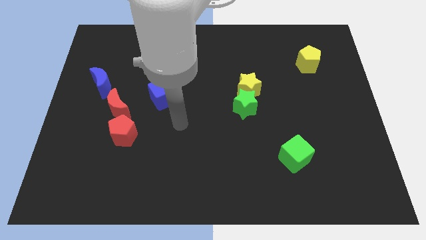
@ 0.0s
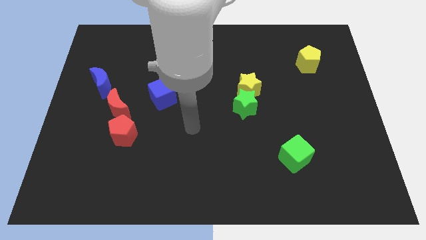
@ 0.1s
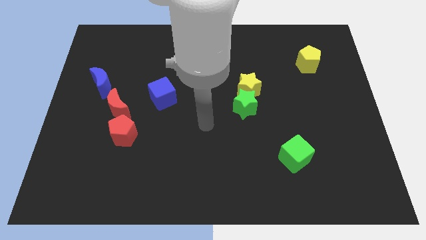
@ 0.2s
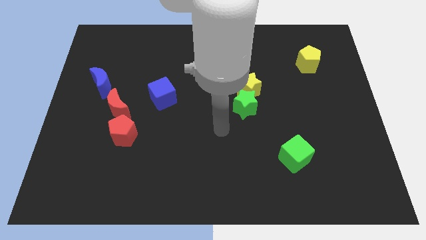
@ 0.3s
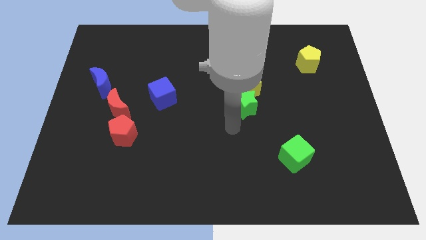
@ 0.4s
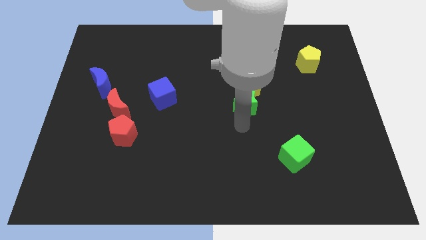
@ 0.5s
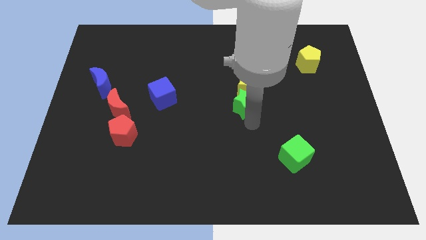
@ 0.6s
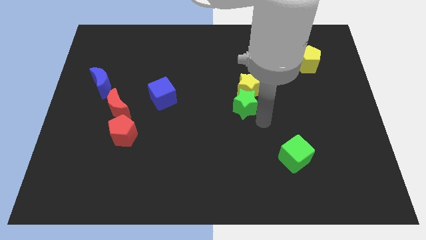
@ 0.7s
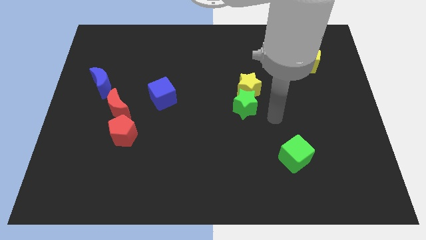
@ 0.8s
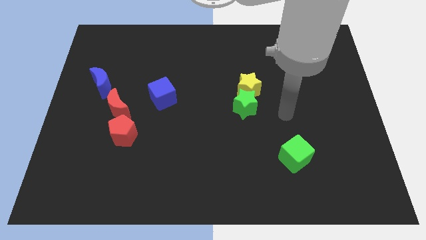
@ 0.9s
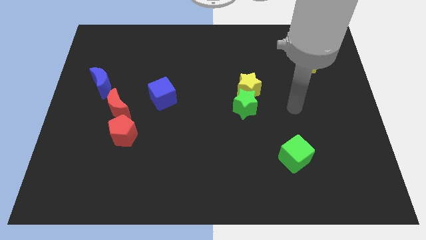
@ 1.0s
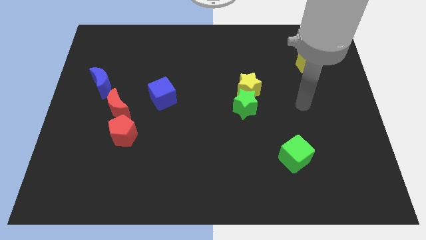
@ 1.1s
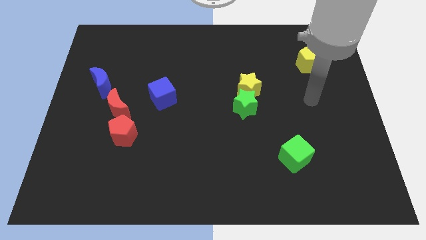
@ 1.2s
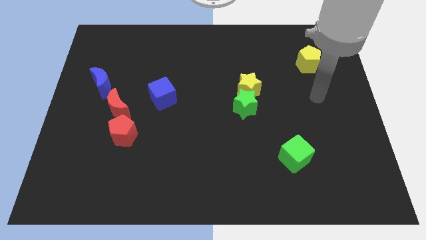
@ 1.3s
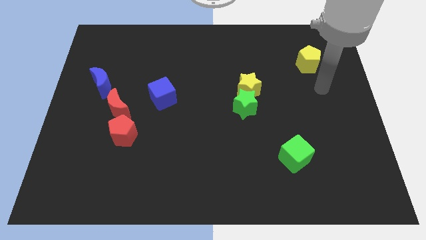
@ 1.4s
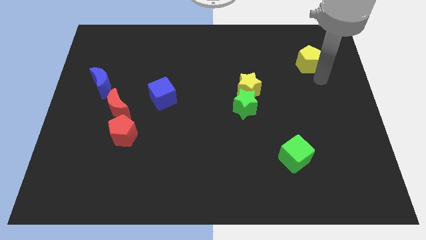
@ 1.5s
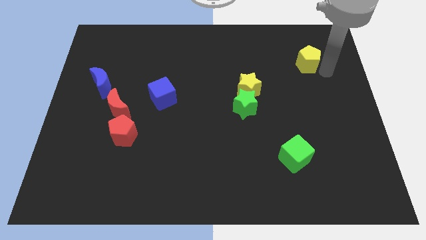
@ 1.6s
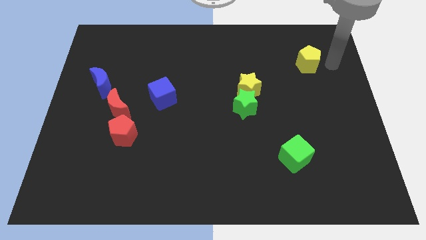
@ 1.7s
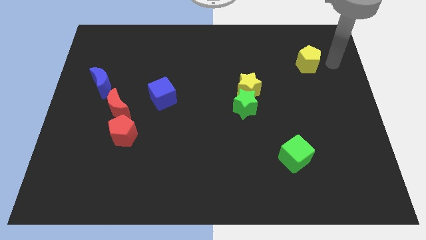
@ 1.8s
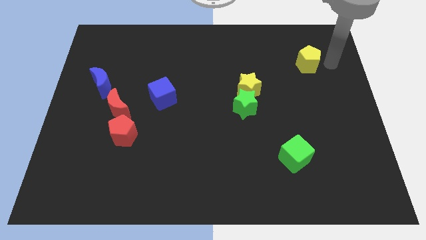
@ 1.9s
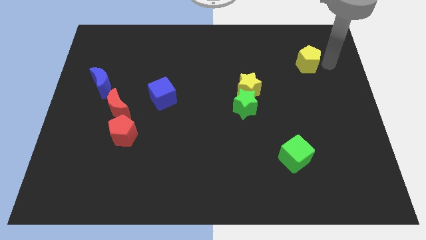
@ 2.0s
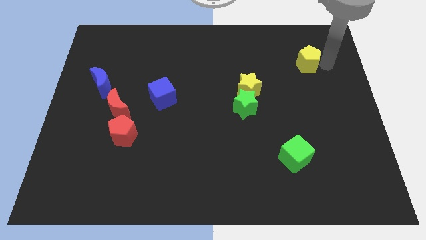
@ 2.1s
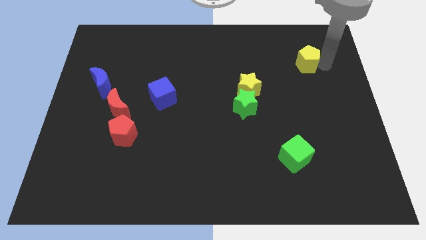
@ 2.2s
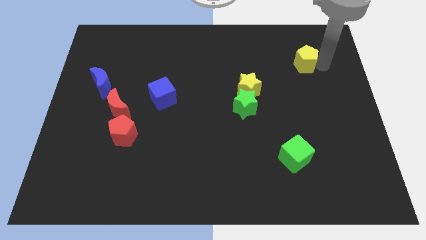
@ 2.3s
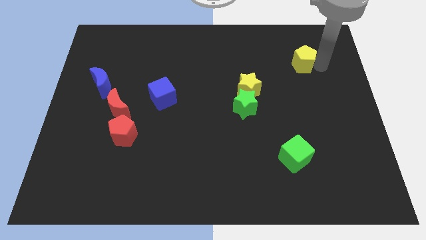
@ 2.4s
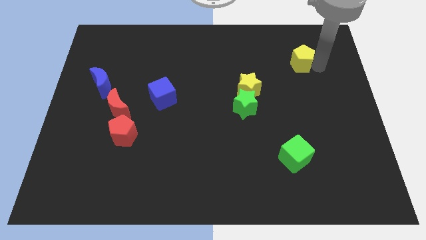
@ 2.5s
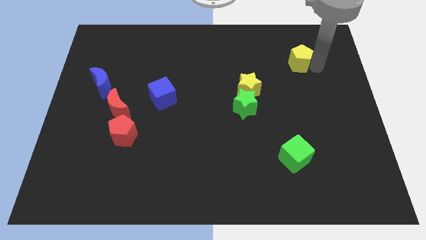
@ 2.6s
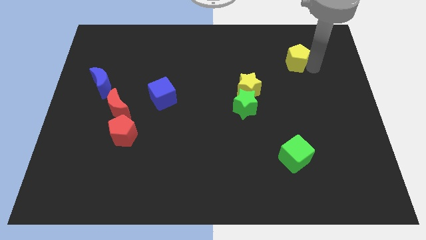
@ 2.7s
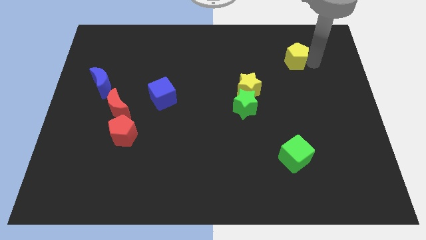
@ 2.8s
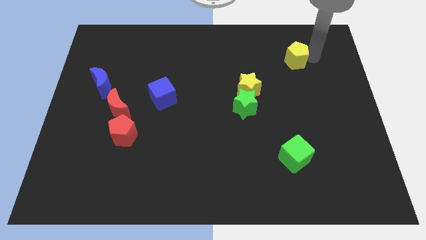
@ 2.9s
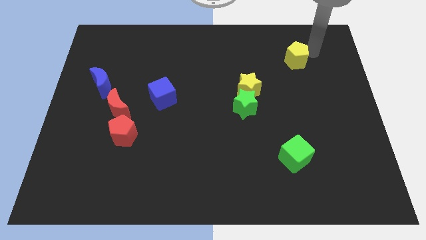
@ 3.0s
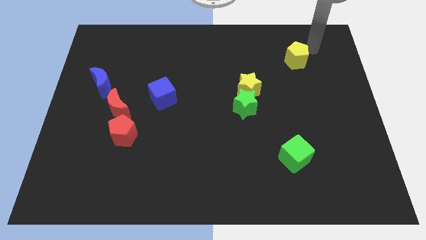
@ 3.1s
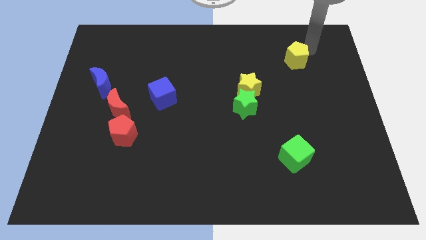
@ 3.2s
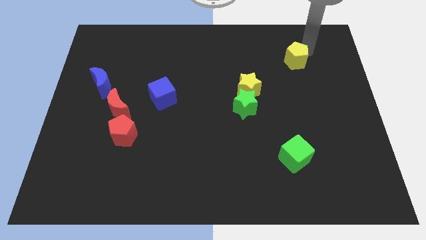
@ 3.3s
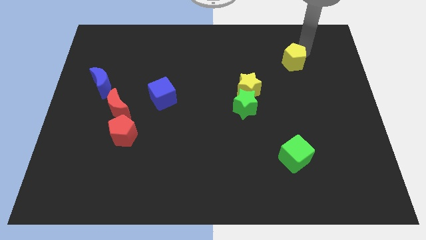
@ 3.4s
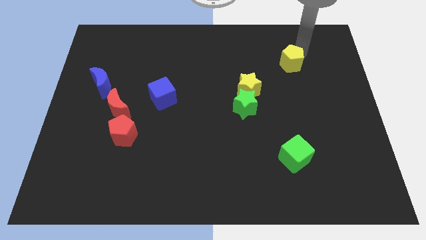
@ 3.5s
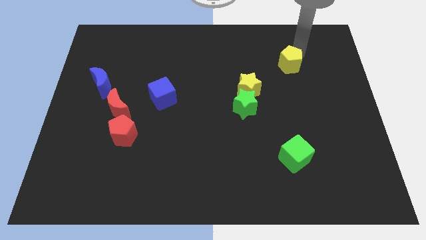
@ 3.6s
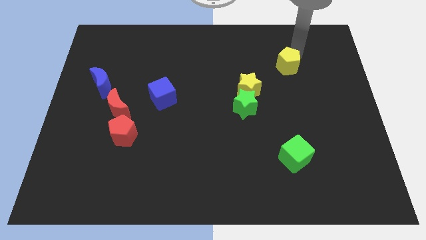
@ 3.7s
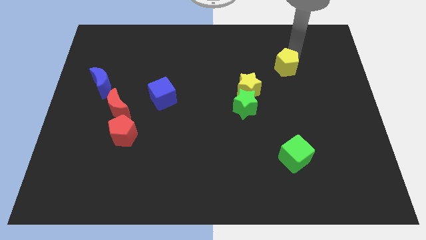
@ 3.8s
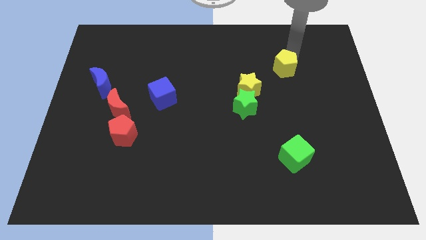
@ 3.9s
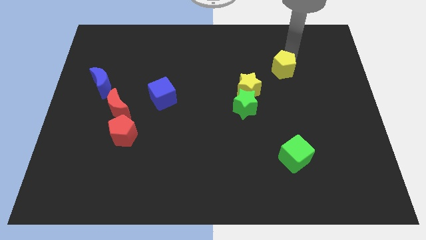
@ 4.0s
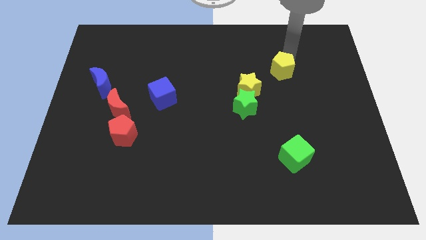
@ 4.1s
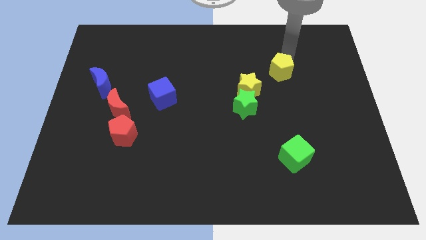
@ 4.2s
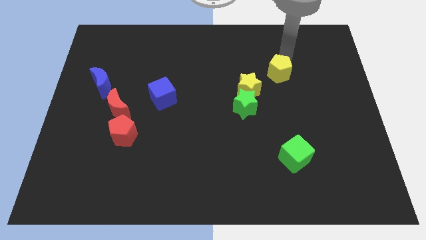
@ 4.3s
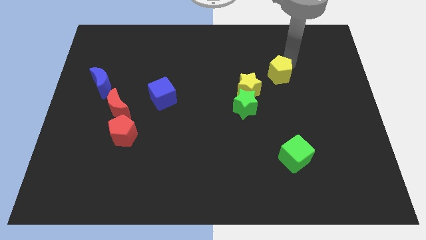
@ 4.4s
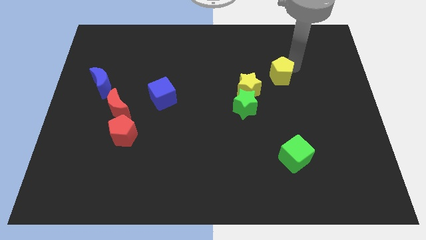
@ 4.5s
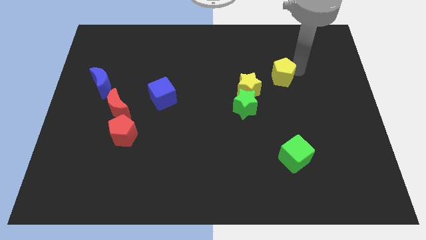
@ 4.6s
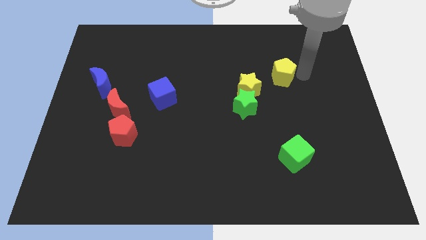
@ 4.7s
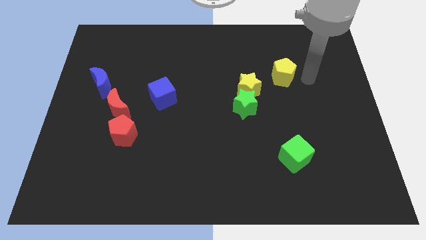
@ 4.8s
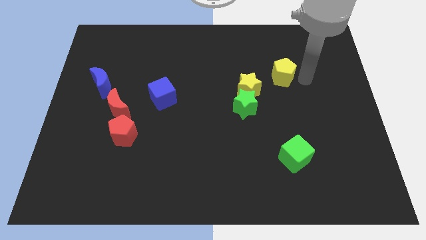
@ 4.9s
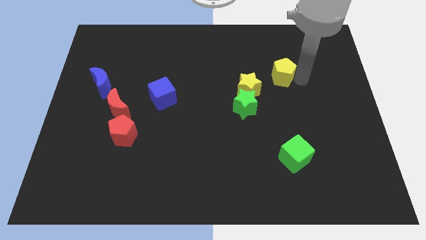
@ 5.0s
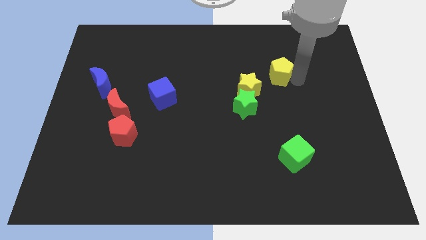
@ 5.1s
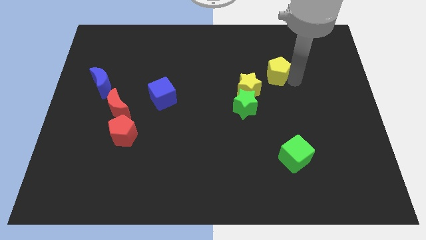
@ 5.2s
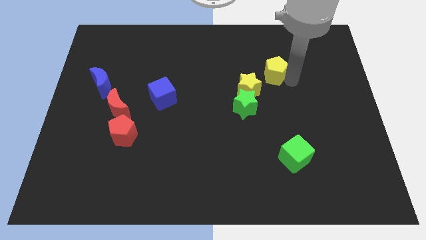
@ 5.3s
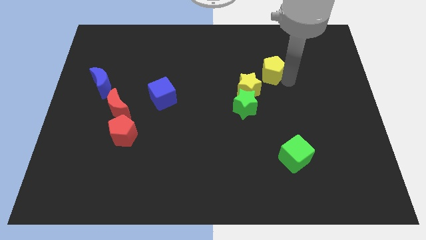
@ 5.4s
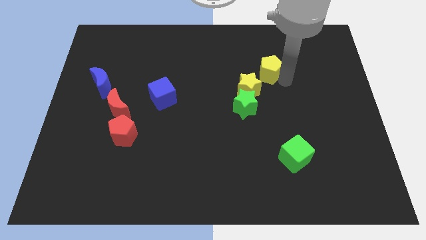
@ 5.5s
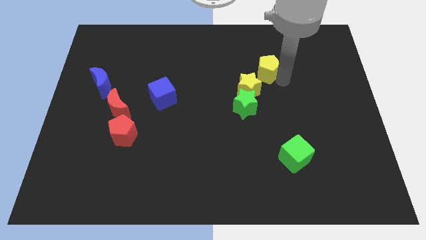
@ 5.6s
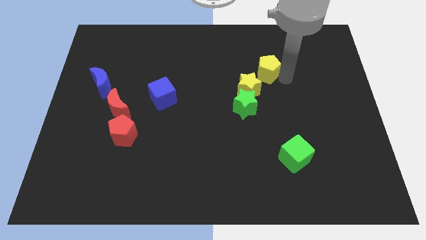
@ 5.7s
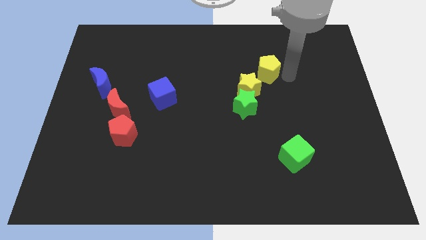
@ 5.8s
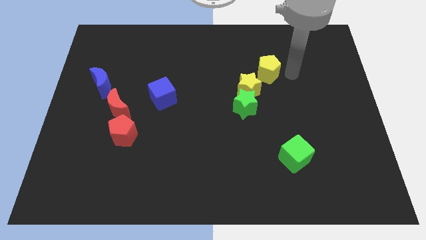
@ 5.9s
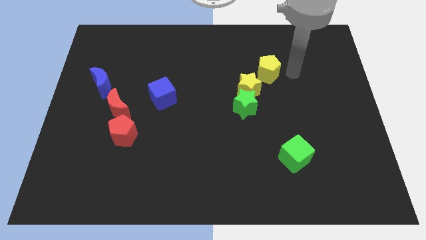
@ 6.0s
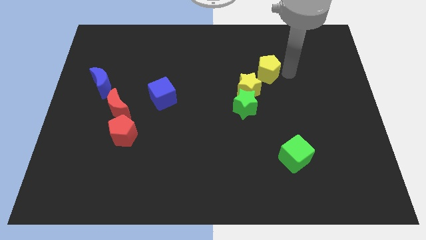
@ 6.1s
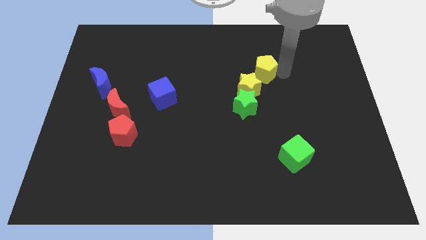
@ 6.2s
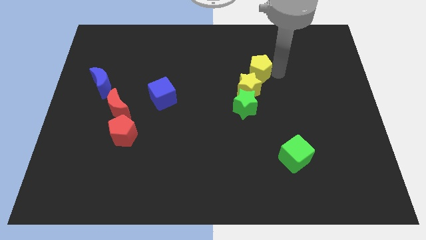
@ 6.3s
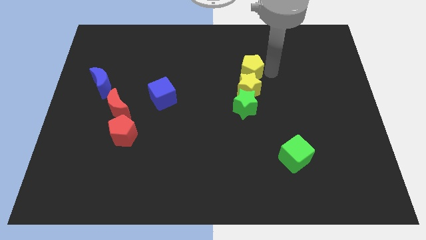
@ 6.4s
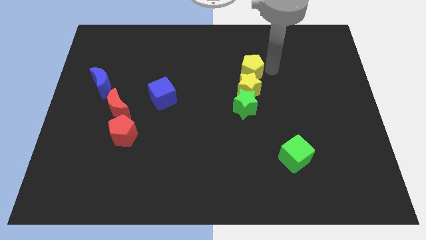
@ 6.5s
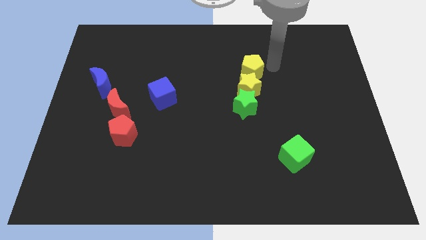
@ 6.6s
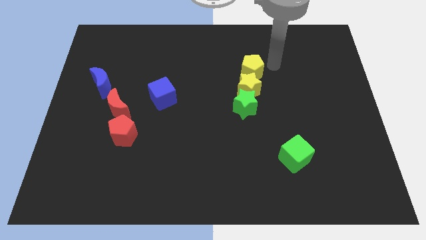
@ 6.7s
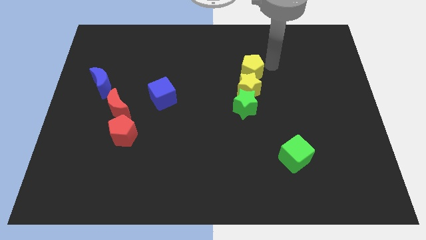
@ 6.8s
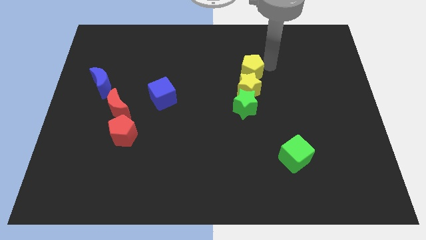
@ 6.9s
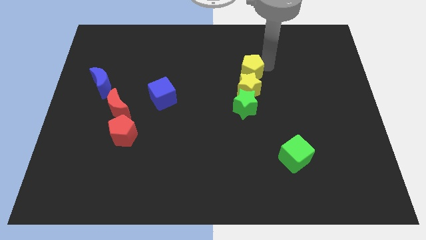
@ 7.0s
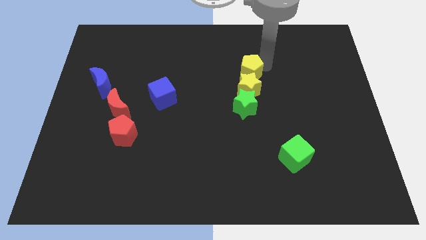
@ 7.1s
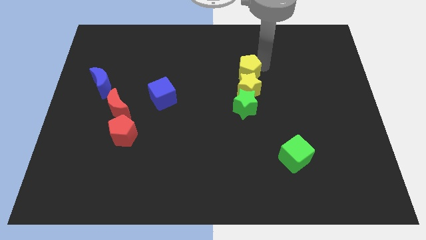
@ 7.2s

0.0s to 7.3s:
move the yellow pentagon to the center of the board
